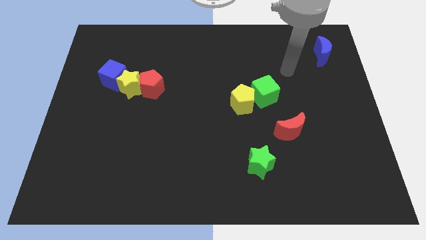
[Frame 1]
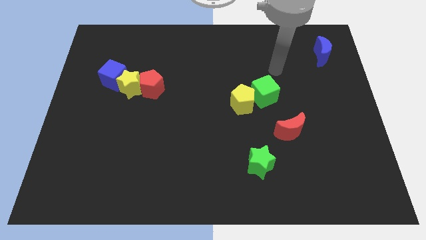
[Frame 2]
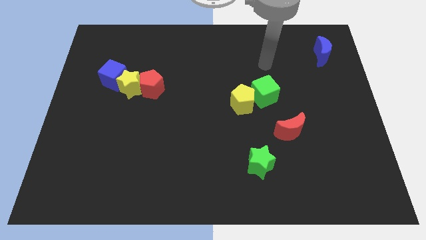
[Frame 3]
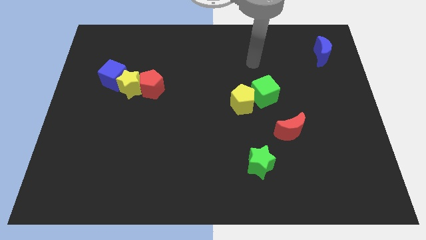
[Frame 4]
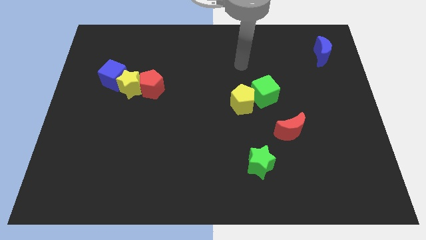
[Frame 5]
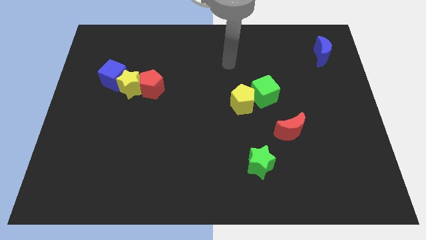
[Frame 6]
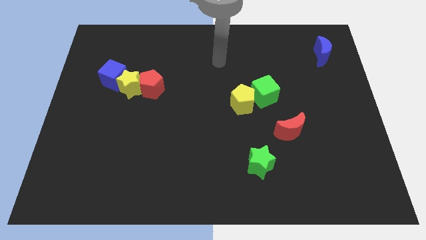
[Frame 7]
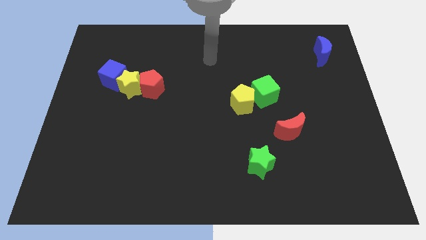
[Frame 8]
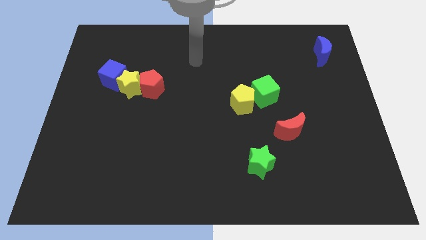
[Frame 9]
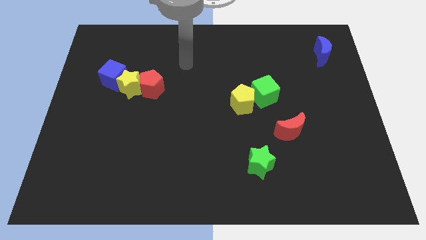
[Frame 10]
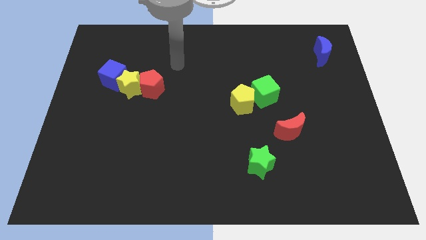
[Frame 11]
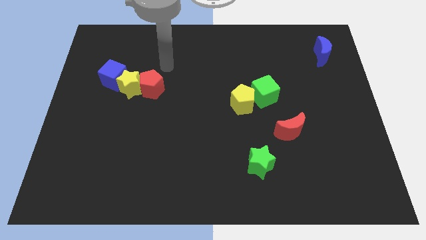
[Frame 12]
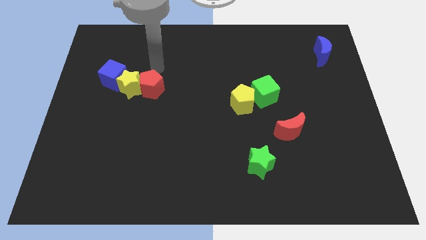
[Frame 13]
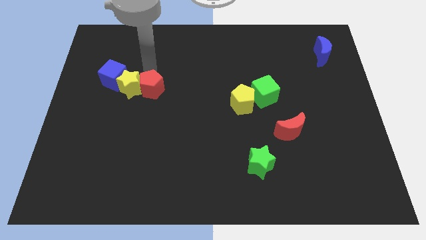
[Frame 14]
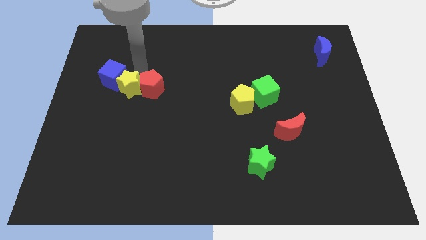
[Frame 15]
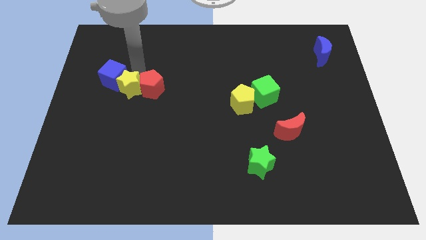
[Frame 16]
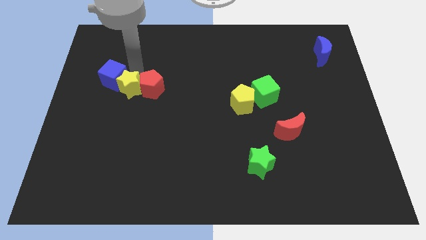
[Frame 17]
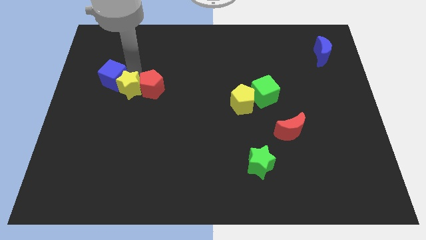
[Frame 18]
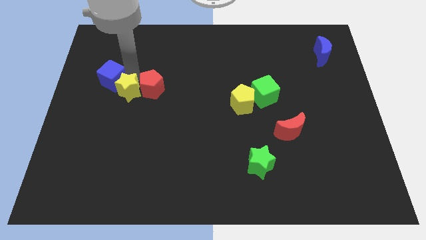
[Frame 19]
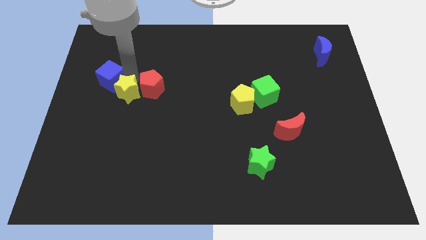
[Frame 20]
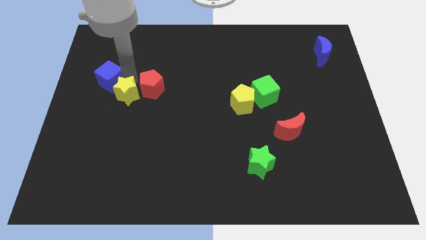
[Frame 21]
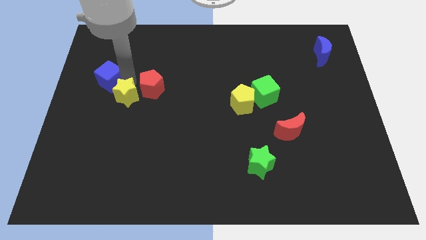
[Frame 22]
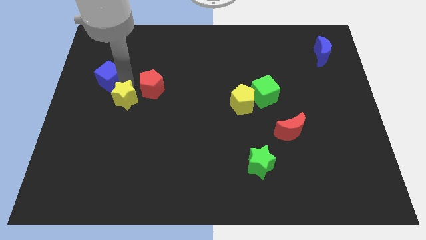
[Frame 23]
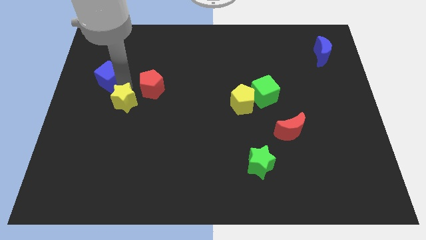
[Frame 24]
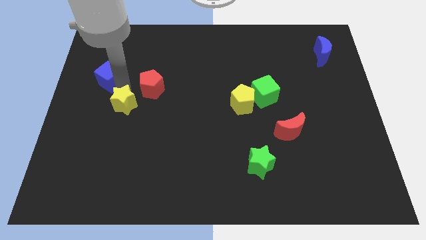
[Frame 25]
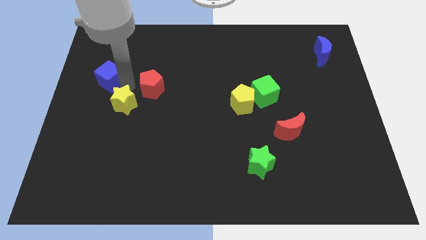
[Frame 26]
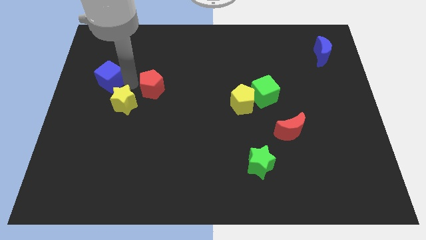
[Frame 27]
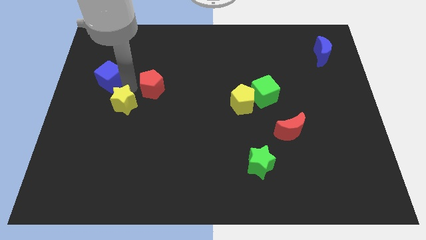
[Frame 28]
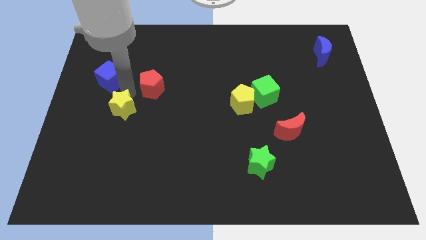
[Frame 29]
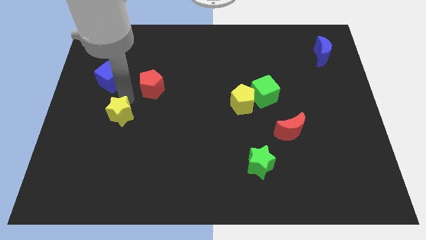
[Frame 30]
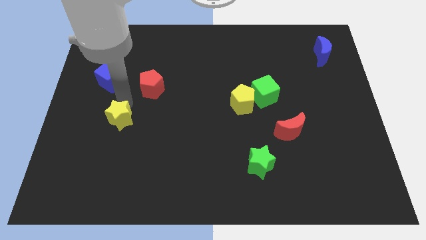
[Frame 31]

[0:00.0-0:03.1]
pull the yellow star apart from the red pentagon and blue cube

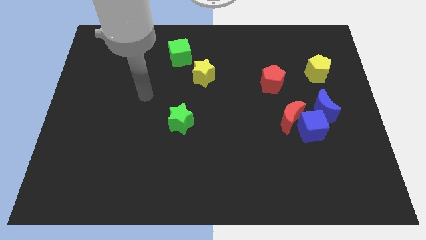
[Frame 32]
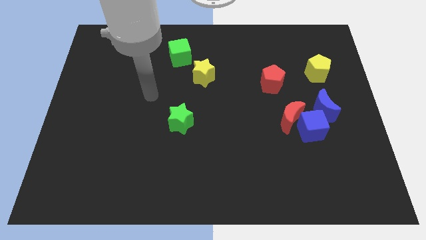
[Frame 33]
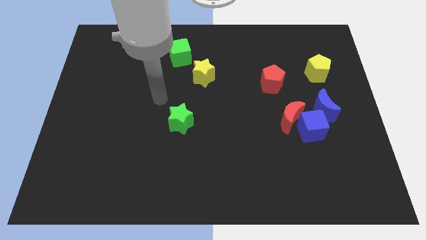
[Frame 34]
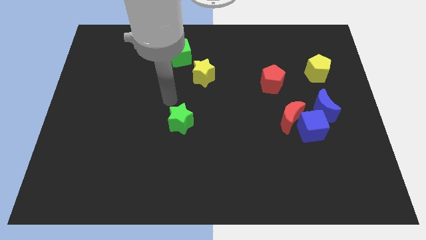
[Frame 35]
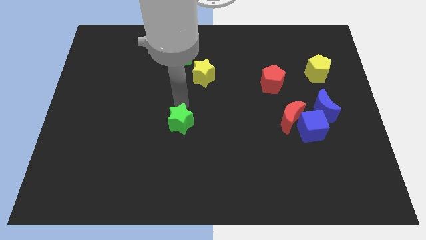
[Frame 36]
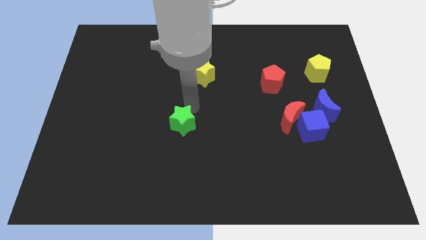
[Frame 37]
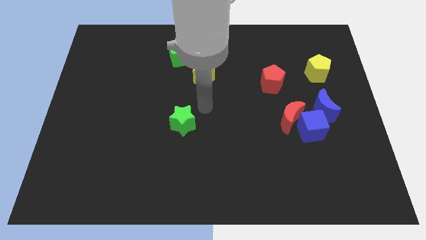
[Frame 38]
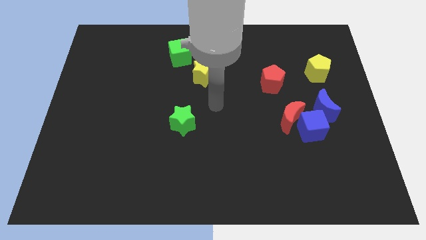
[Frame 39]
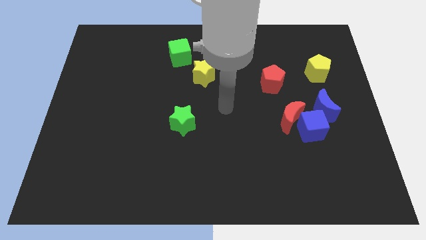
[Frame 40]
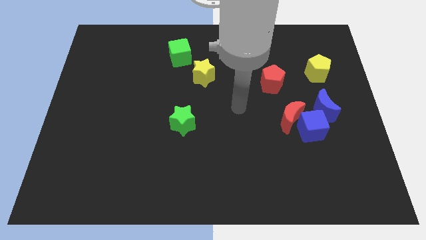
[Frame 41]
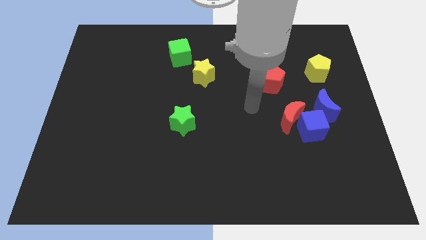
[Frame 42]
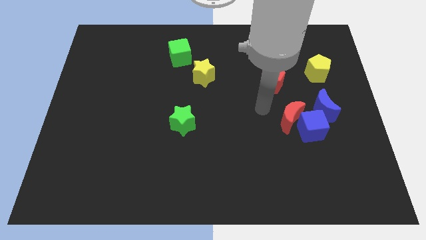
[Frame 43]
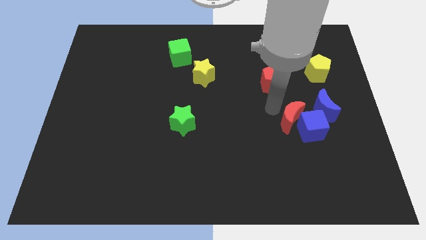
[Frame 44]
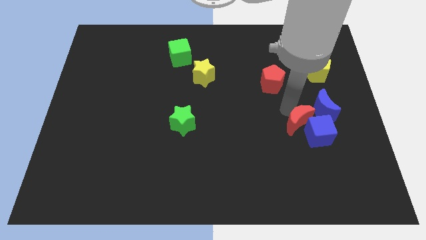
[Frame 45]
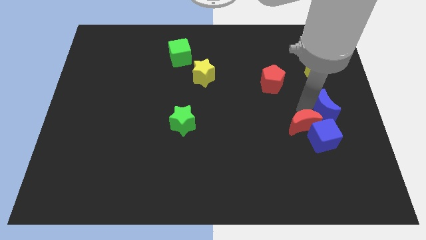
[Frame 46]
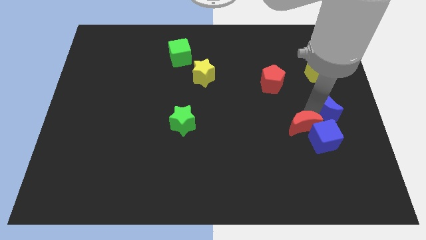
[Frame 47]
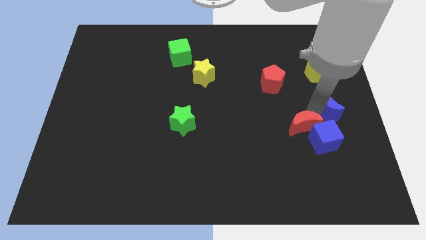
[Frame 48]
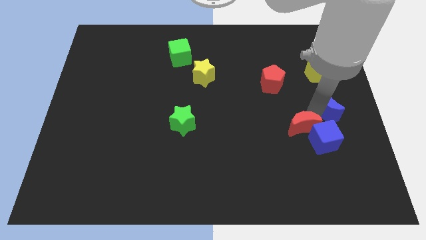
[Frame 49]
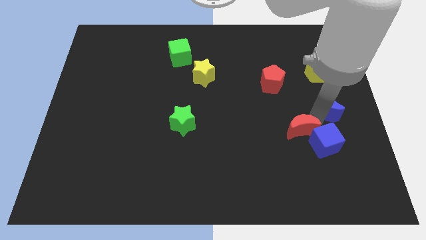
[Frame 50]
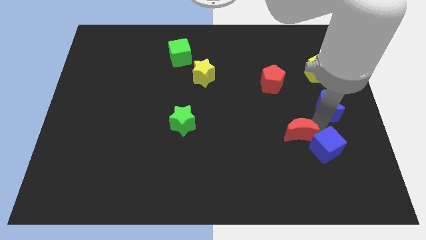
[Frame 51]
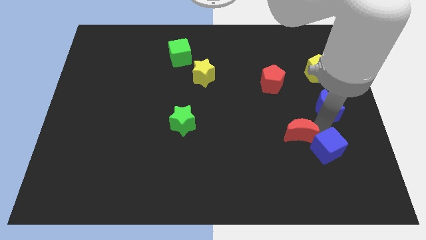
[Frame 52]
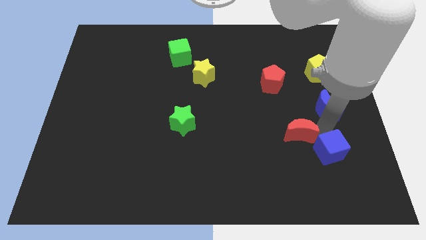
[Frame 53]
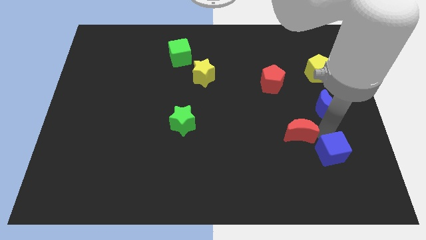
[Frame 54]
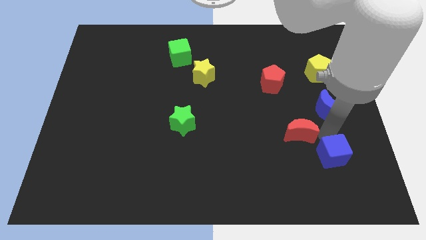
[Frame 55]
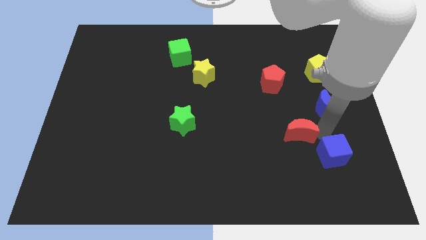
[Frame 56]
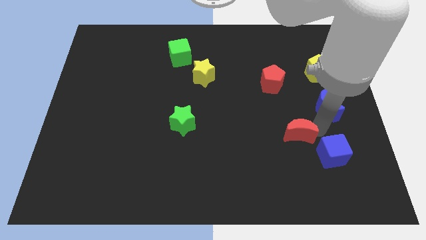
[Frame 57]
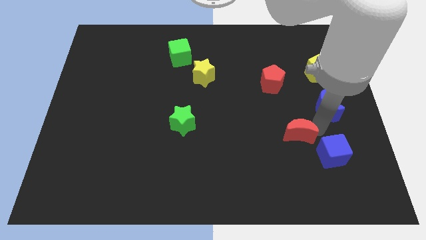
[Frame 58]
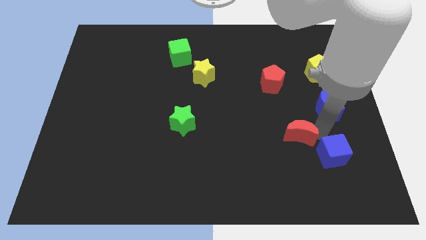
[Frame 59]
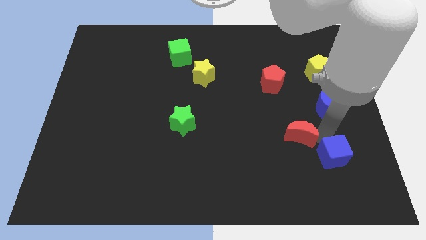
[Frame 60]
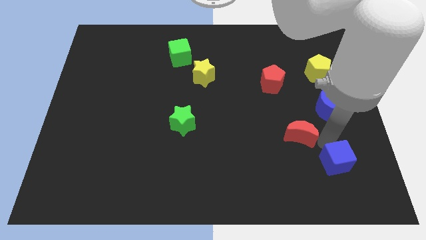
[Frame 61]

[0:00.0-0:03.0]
pull the blue cube apart from the red moon and blue moon

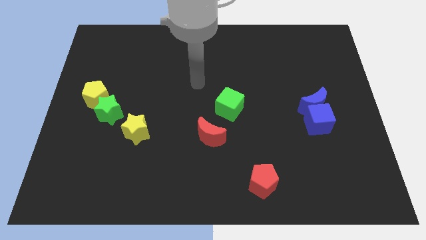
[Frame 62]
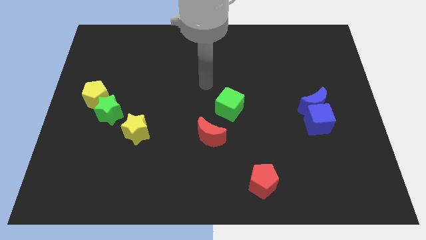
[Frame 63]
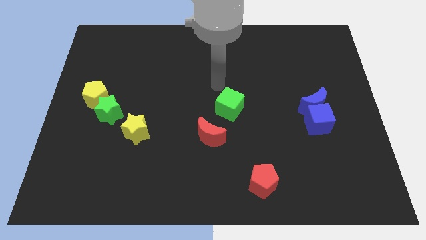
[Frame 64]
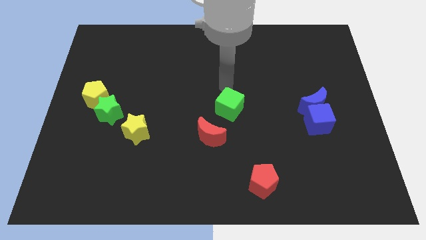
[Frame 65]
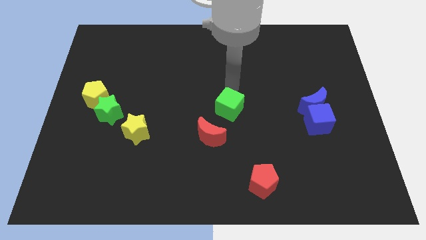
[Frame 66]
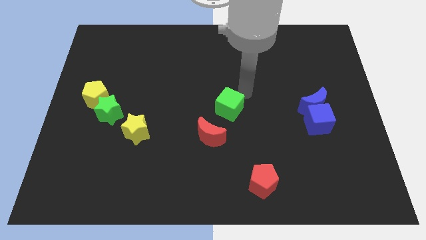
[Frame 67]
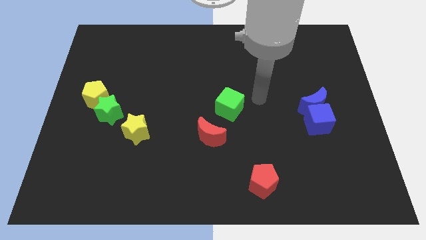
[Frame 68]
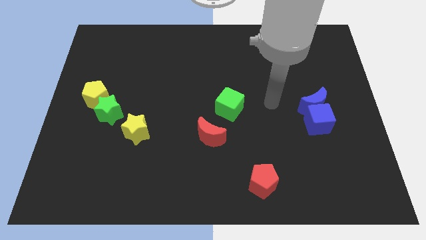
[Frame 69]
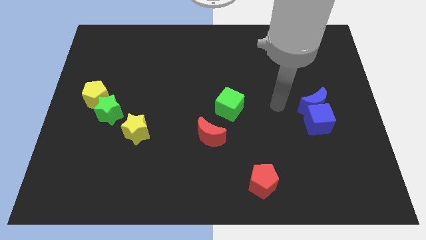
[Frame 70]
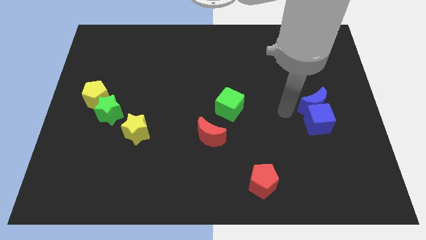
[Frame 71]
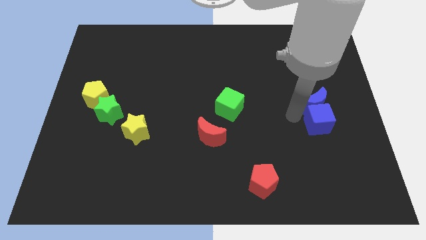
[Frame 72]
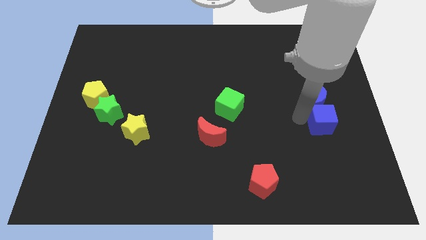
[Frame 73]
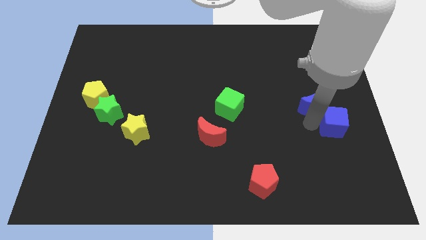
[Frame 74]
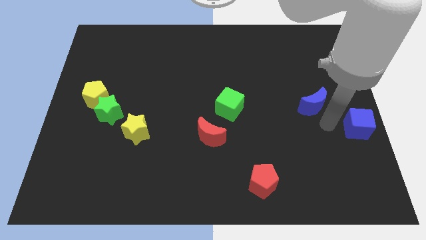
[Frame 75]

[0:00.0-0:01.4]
separate the blue moon from the blue cube

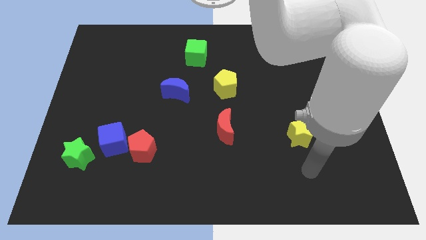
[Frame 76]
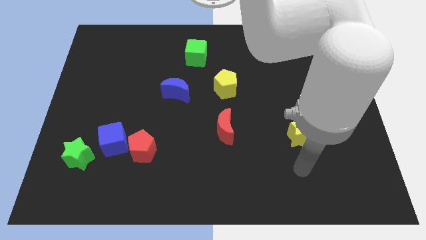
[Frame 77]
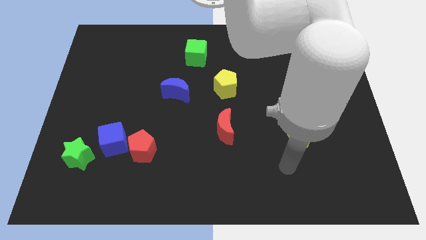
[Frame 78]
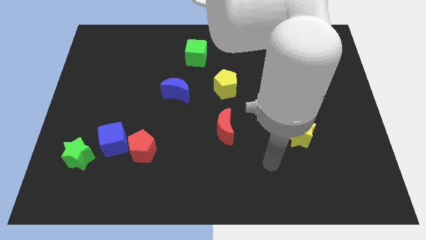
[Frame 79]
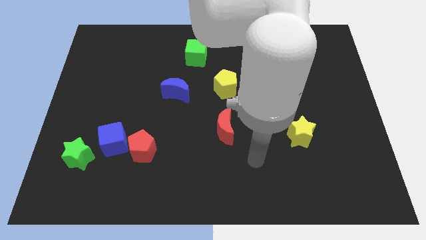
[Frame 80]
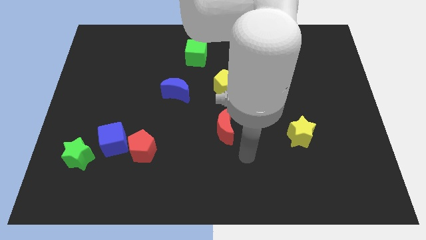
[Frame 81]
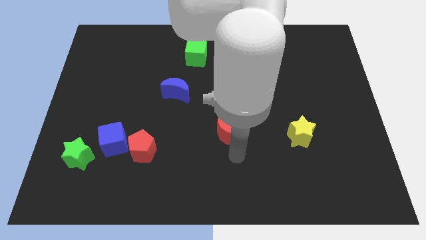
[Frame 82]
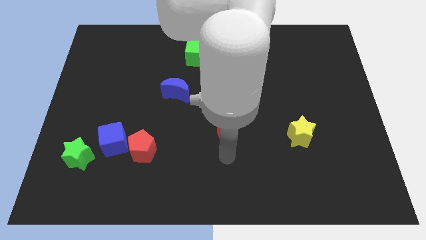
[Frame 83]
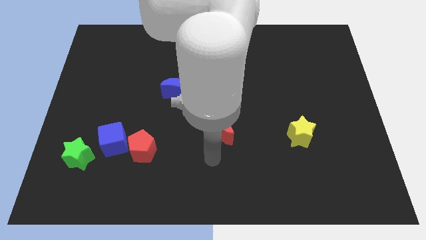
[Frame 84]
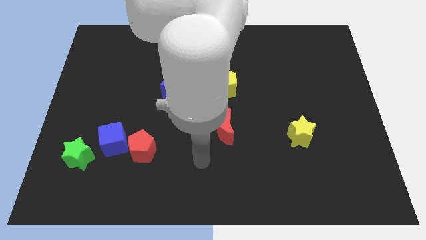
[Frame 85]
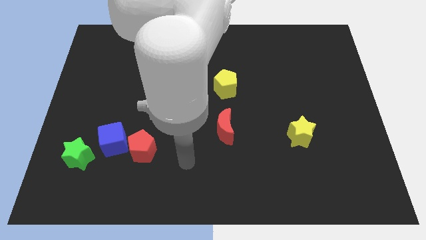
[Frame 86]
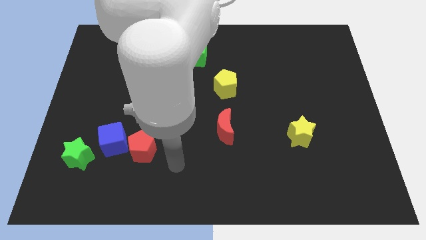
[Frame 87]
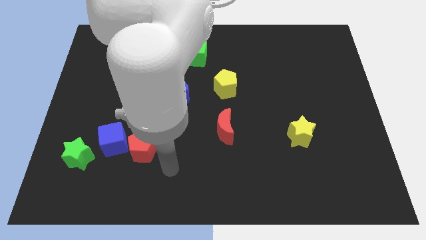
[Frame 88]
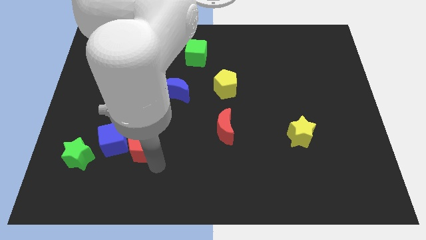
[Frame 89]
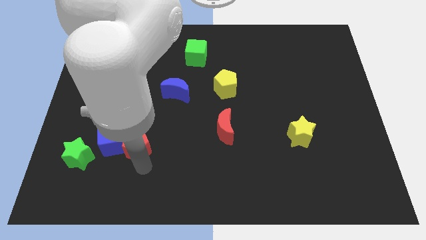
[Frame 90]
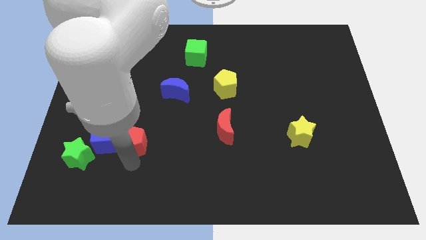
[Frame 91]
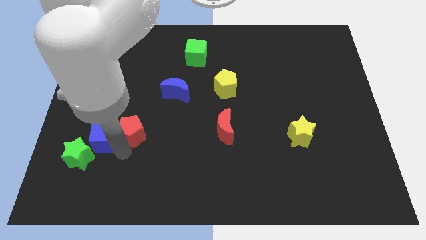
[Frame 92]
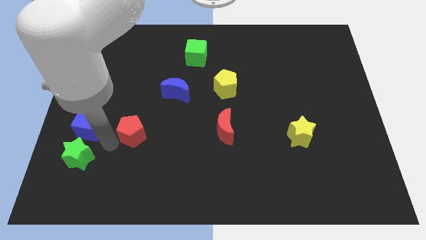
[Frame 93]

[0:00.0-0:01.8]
separate the red pentagon from the blue cube
